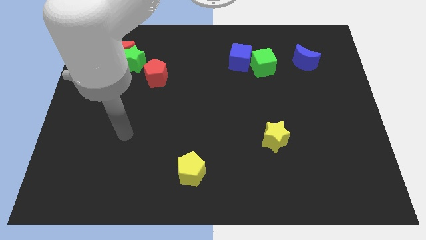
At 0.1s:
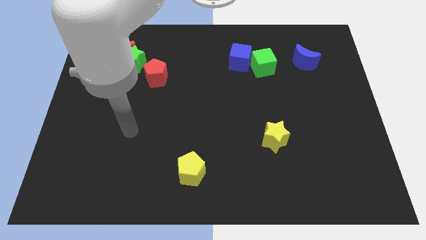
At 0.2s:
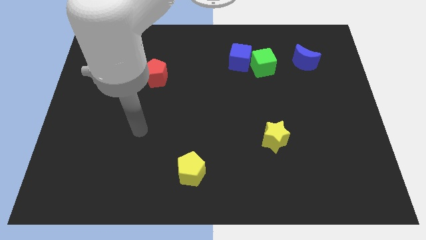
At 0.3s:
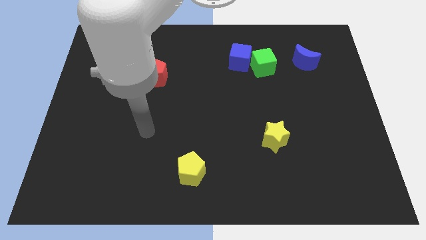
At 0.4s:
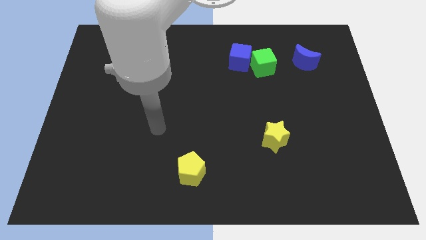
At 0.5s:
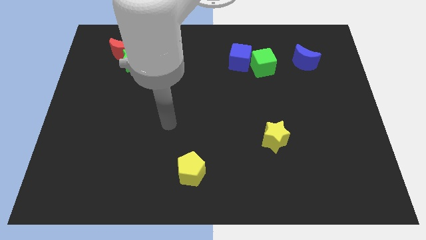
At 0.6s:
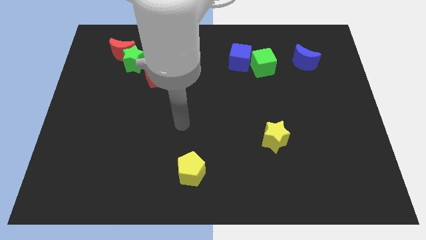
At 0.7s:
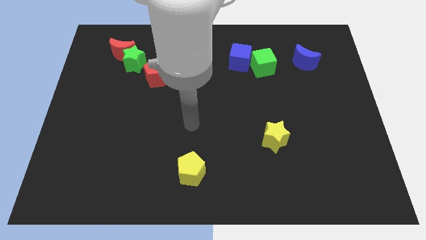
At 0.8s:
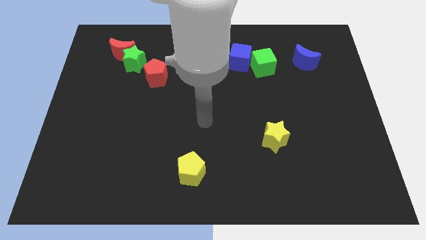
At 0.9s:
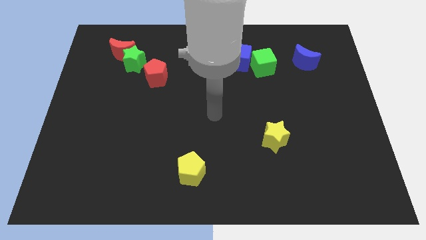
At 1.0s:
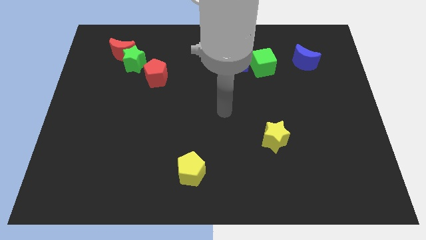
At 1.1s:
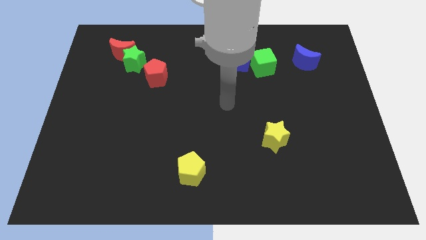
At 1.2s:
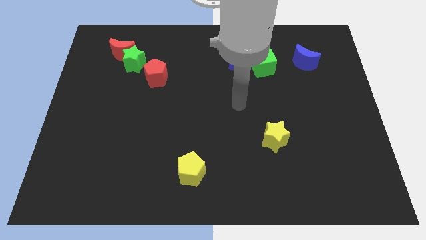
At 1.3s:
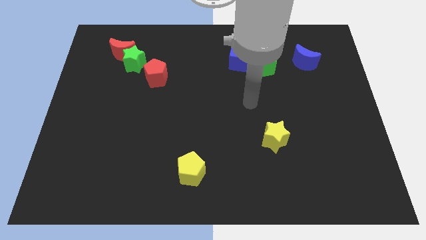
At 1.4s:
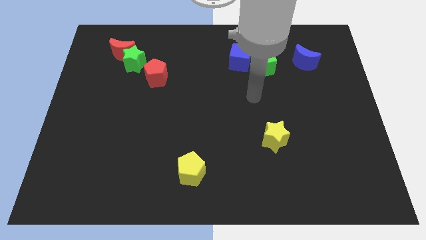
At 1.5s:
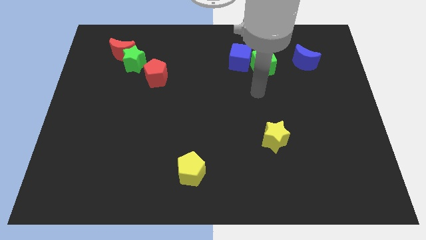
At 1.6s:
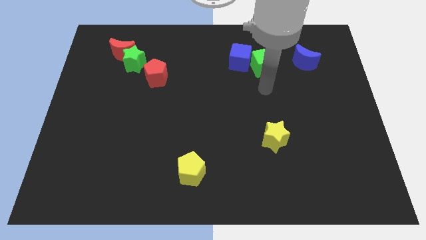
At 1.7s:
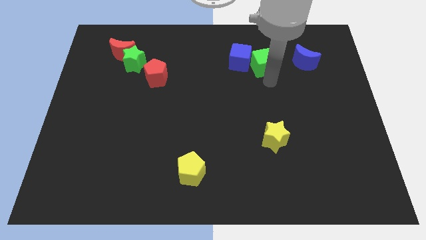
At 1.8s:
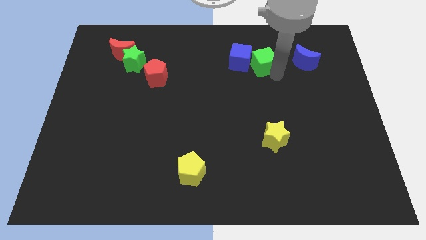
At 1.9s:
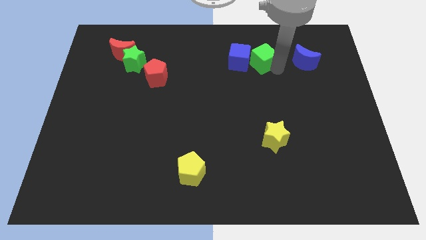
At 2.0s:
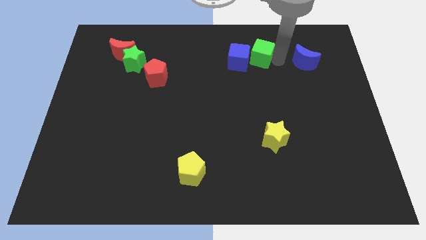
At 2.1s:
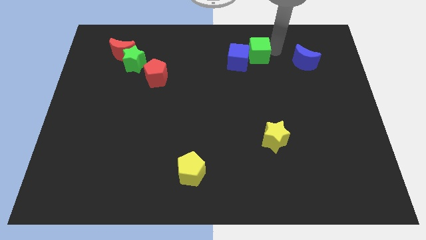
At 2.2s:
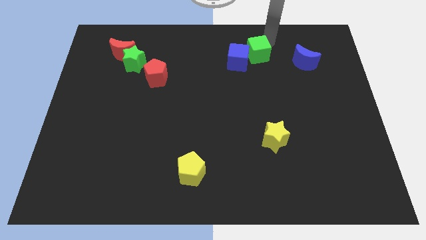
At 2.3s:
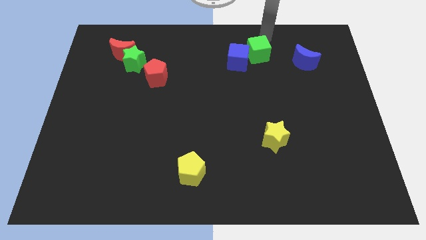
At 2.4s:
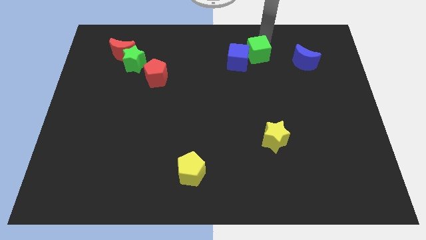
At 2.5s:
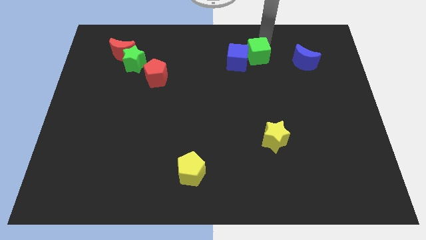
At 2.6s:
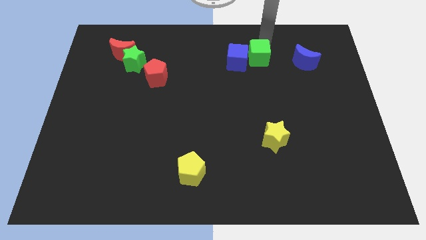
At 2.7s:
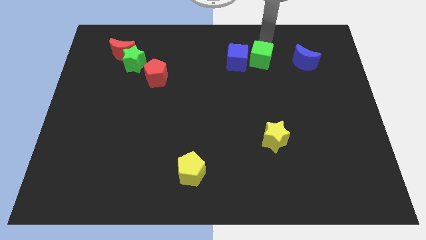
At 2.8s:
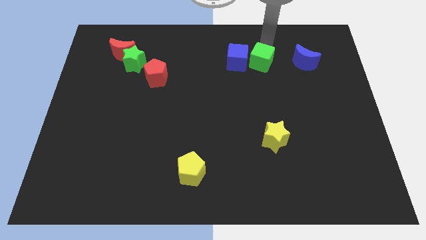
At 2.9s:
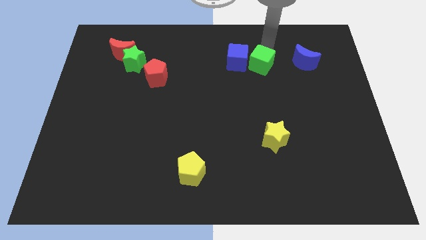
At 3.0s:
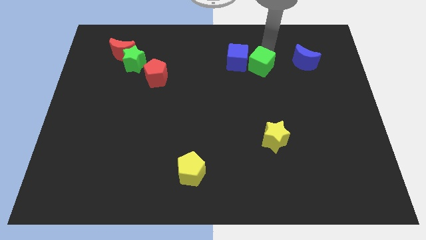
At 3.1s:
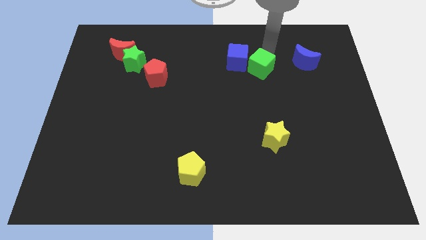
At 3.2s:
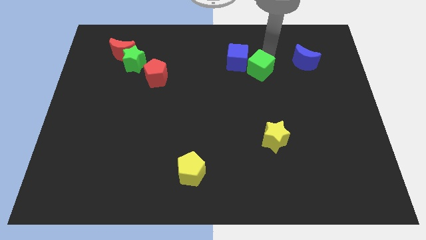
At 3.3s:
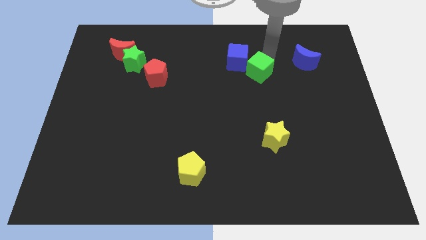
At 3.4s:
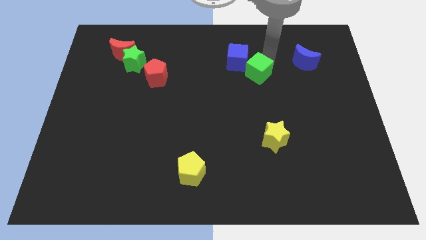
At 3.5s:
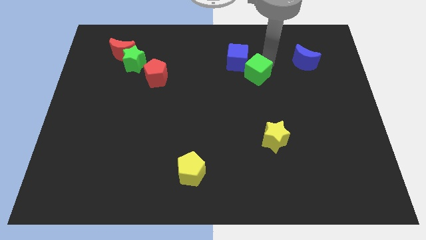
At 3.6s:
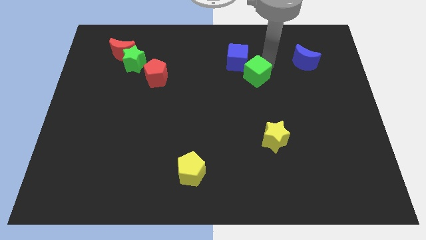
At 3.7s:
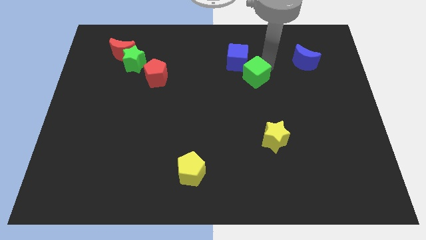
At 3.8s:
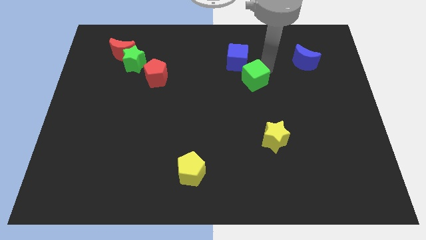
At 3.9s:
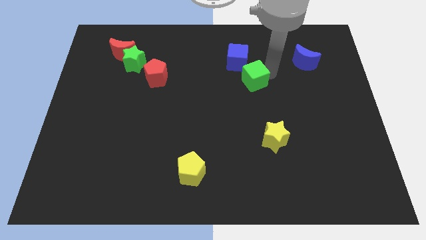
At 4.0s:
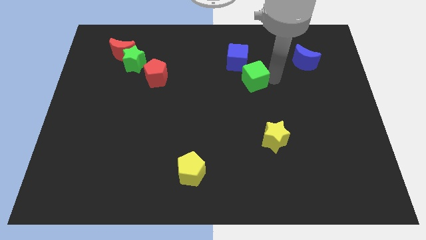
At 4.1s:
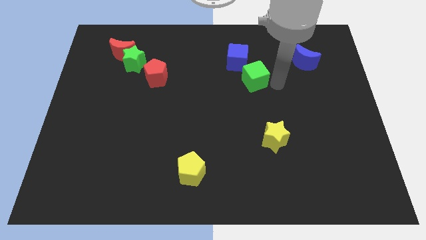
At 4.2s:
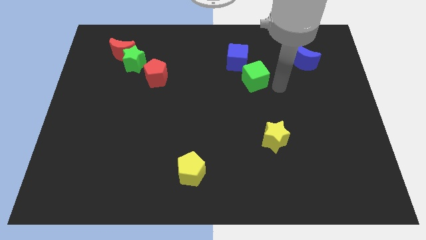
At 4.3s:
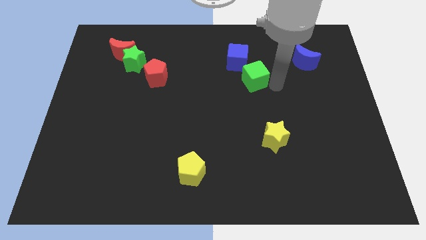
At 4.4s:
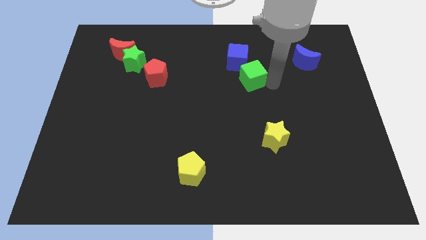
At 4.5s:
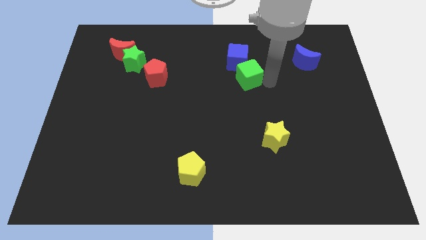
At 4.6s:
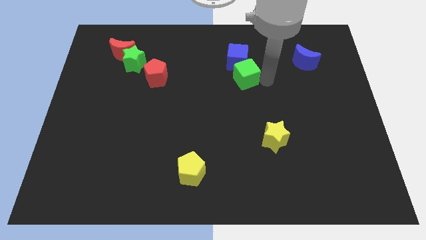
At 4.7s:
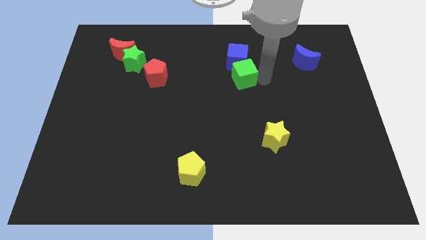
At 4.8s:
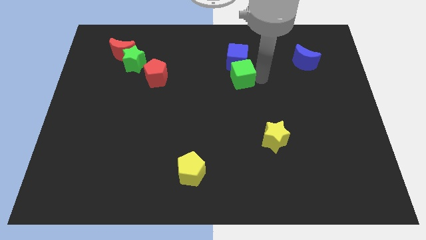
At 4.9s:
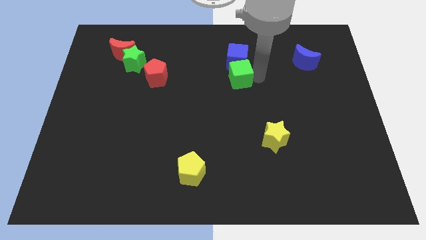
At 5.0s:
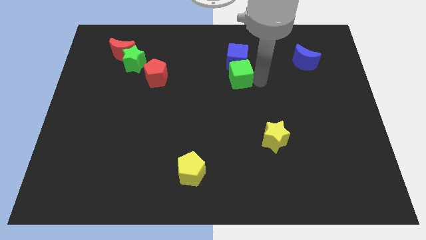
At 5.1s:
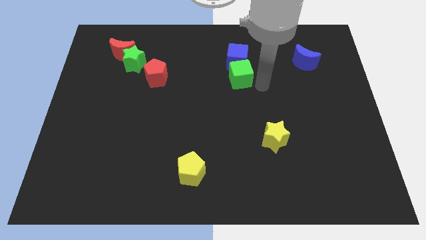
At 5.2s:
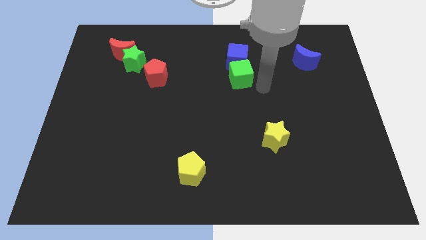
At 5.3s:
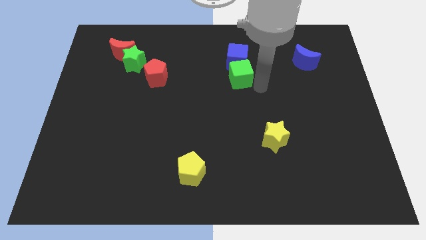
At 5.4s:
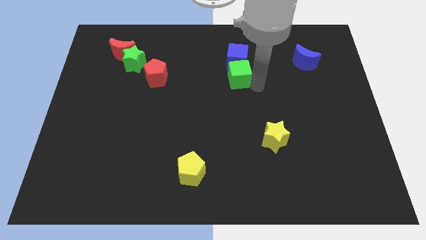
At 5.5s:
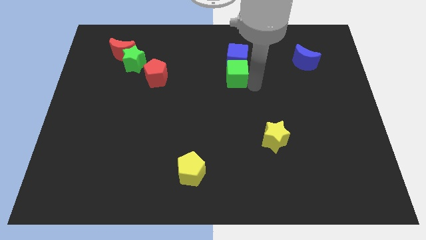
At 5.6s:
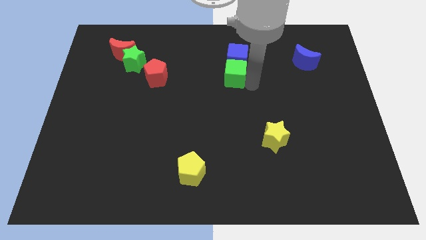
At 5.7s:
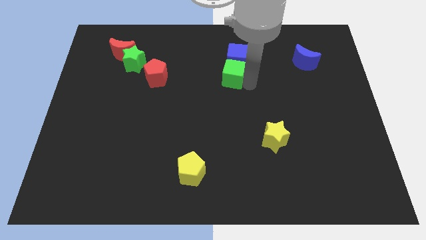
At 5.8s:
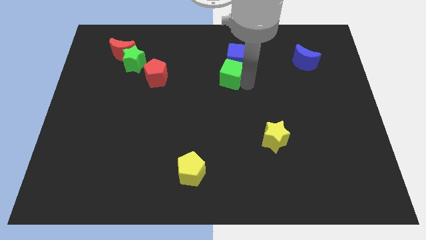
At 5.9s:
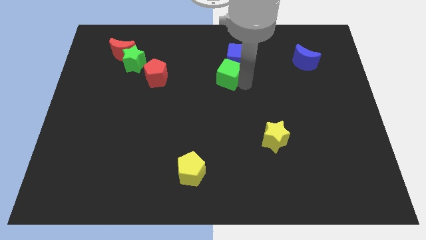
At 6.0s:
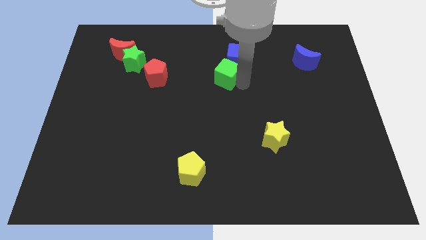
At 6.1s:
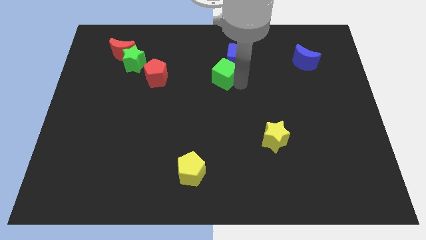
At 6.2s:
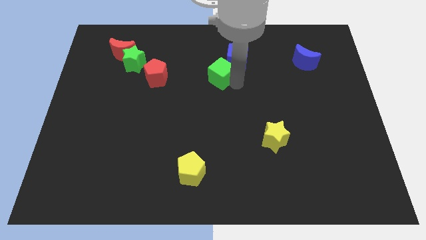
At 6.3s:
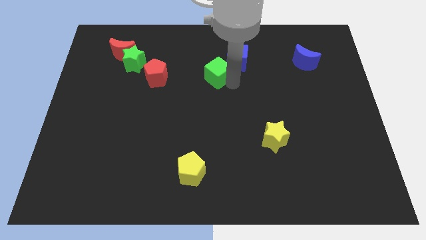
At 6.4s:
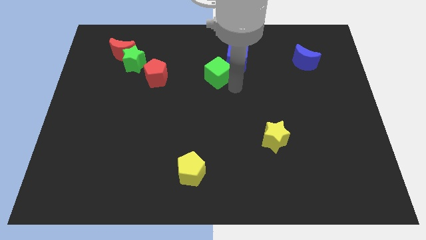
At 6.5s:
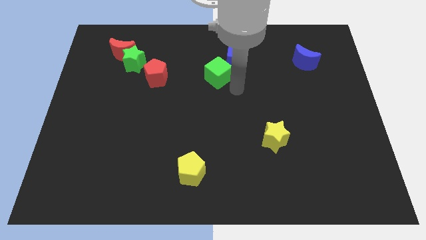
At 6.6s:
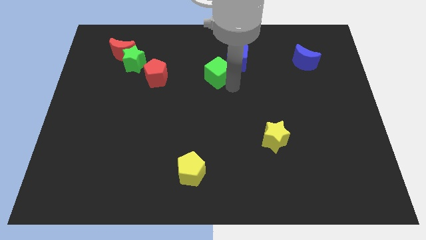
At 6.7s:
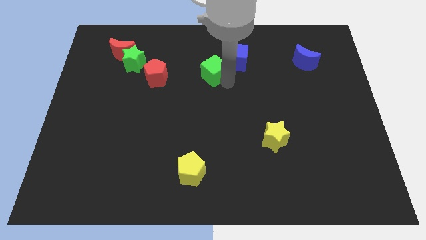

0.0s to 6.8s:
put the green cube to the left of the blue cube

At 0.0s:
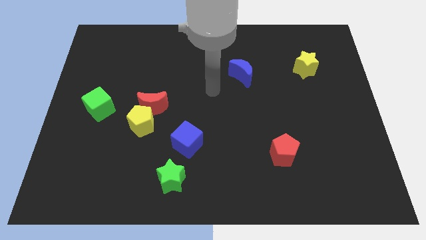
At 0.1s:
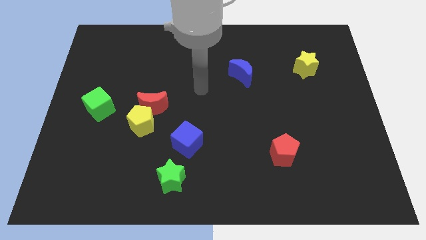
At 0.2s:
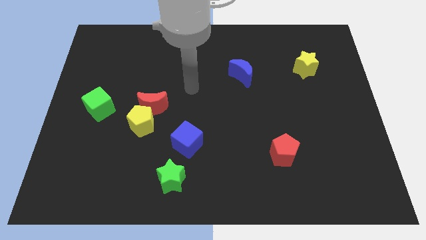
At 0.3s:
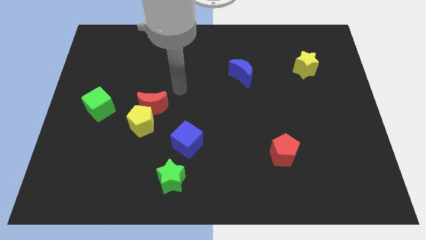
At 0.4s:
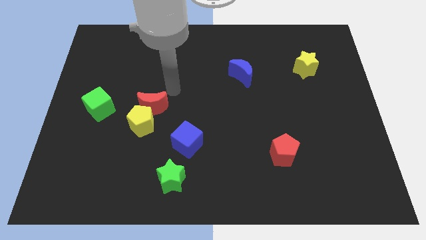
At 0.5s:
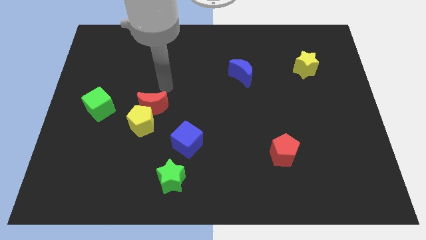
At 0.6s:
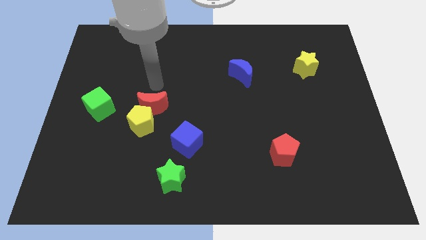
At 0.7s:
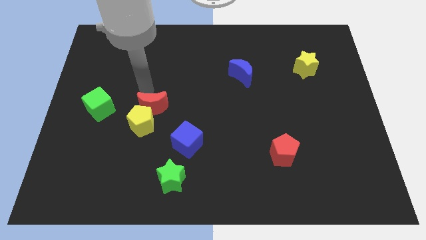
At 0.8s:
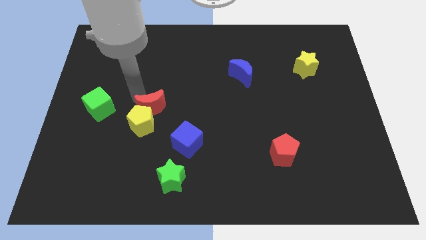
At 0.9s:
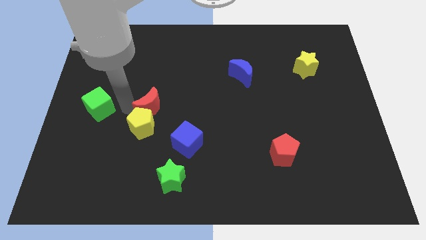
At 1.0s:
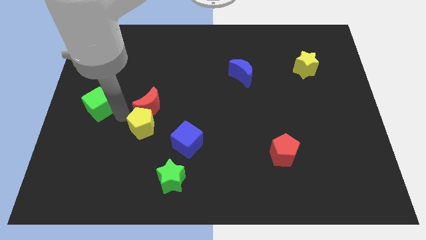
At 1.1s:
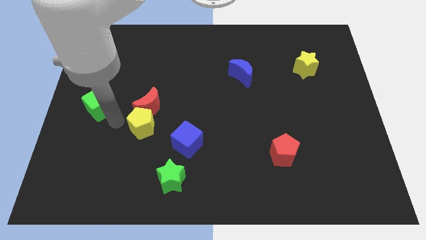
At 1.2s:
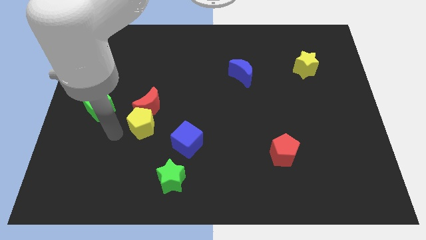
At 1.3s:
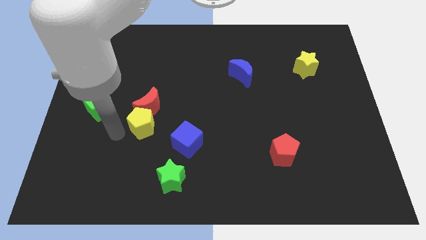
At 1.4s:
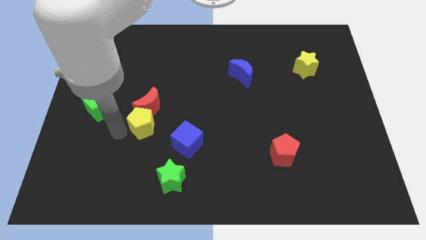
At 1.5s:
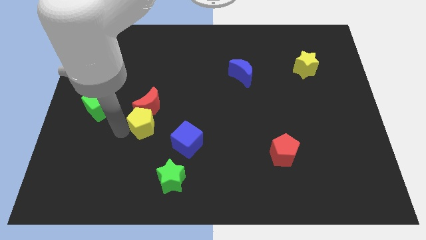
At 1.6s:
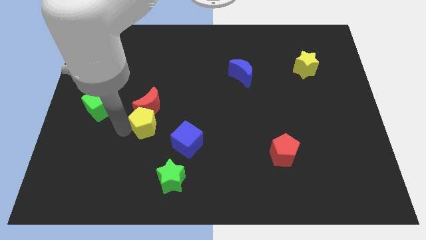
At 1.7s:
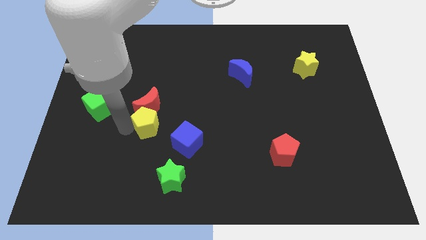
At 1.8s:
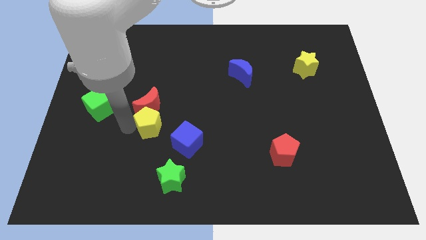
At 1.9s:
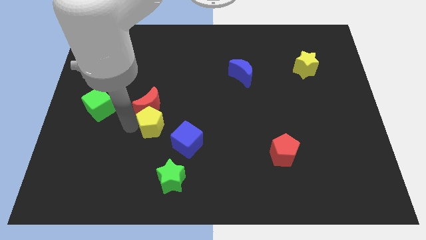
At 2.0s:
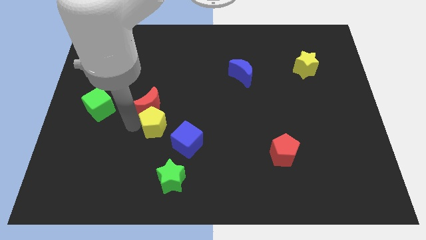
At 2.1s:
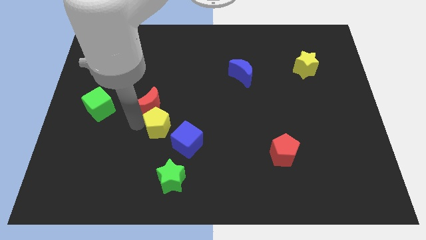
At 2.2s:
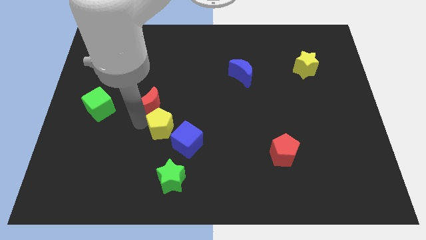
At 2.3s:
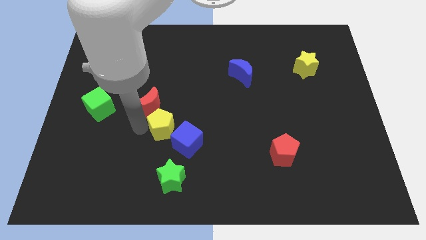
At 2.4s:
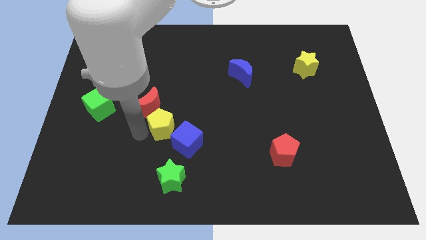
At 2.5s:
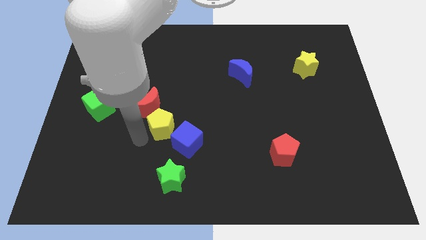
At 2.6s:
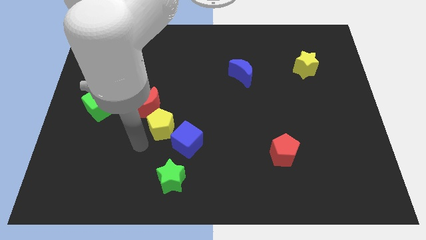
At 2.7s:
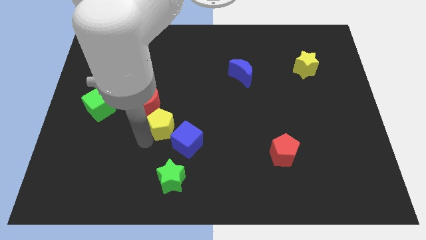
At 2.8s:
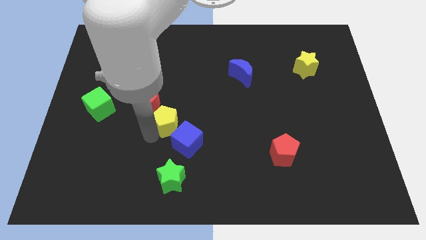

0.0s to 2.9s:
push the yellow pentagon just right of the red moon
